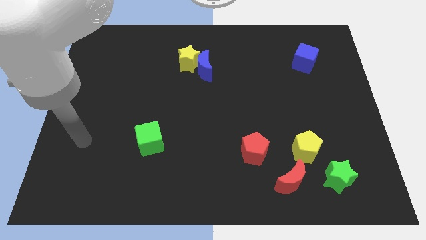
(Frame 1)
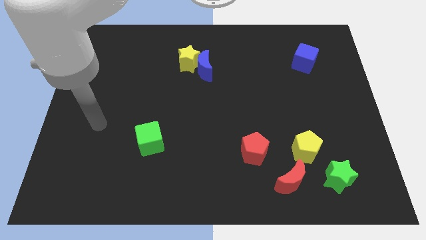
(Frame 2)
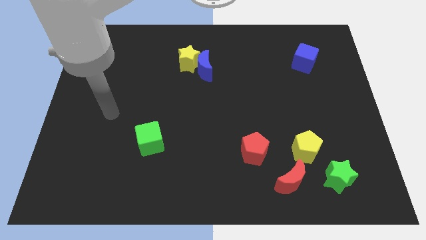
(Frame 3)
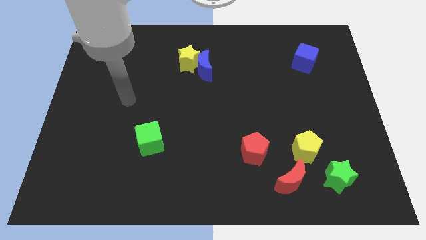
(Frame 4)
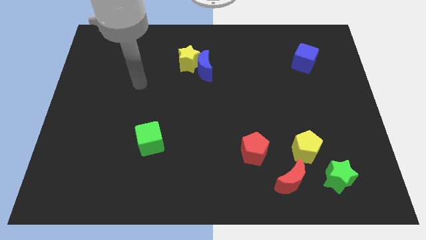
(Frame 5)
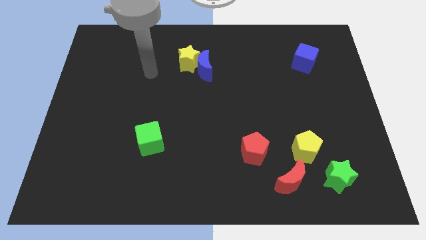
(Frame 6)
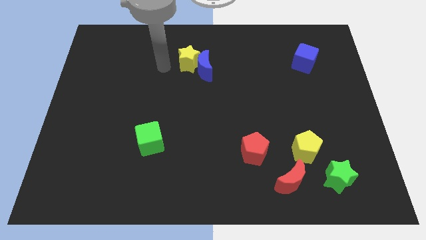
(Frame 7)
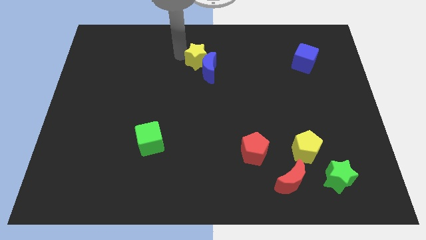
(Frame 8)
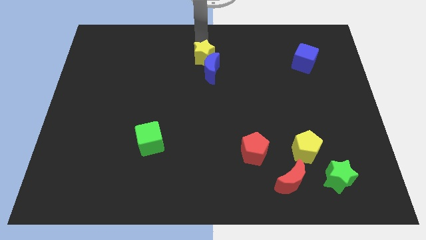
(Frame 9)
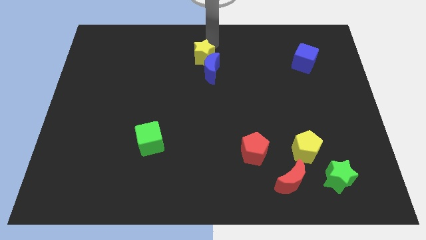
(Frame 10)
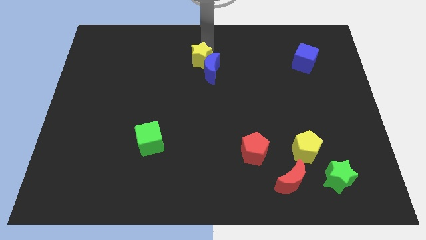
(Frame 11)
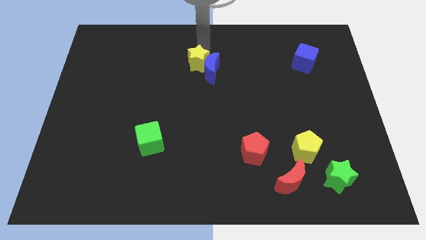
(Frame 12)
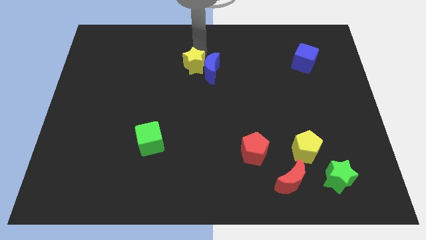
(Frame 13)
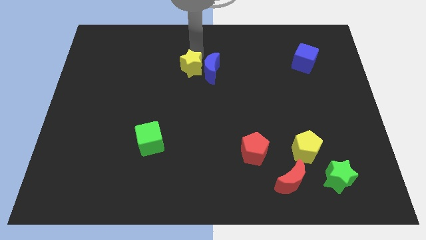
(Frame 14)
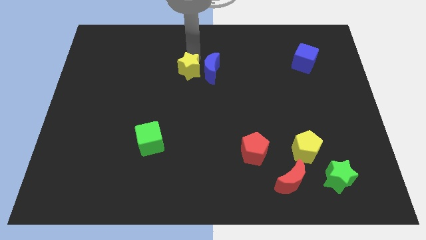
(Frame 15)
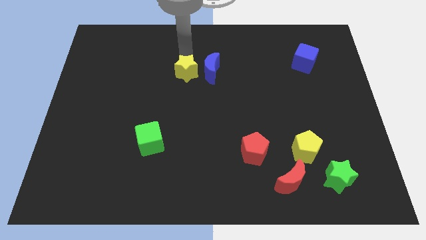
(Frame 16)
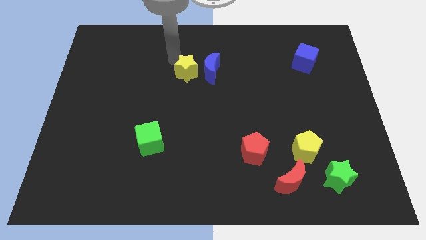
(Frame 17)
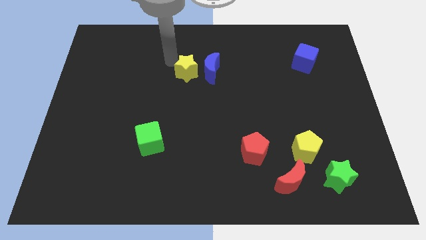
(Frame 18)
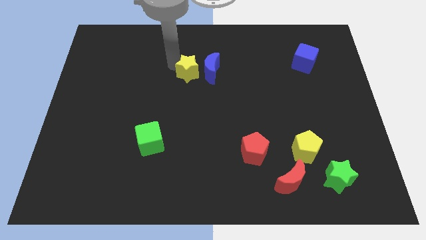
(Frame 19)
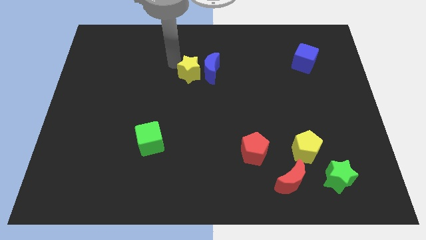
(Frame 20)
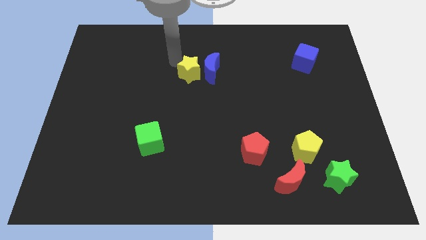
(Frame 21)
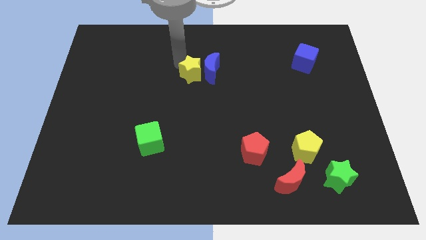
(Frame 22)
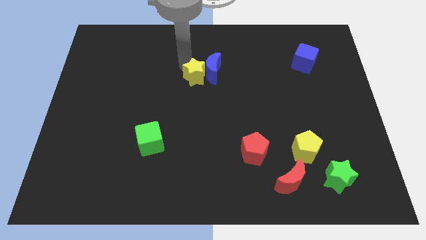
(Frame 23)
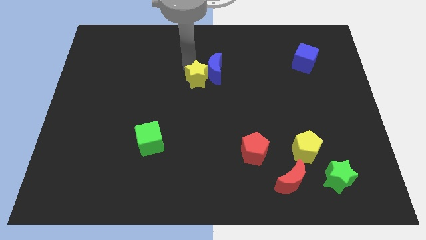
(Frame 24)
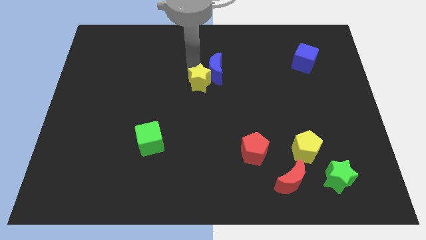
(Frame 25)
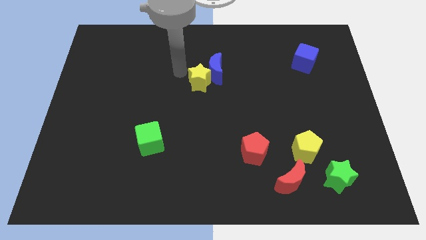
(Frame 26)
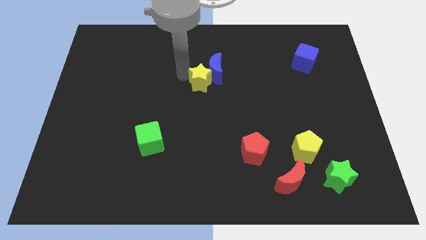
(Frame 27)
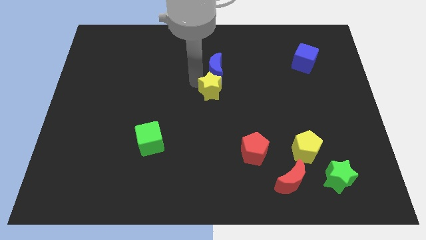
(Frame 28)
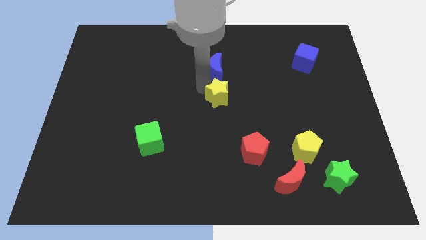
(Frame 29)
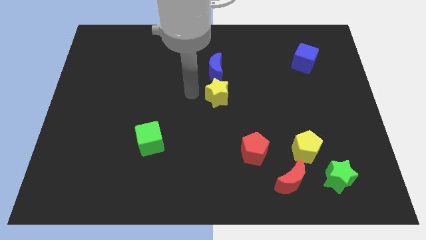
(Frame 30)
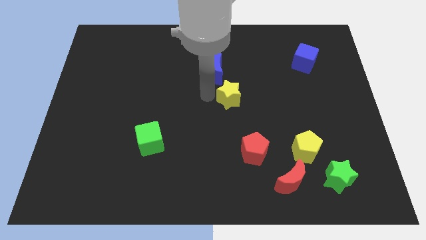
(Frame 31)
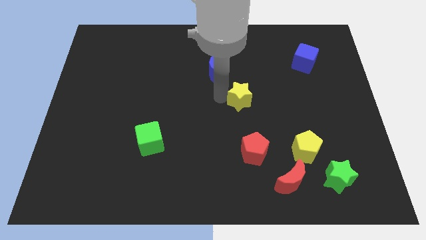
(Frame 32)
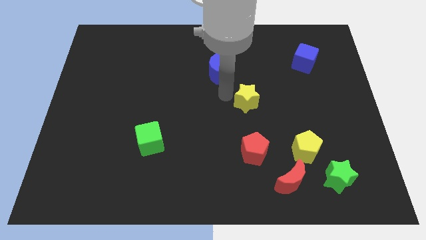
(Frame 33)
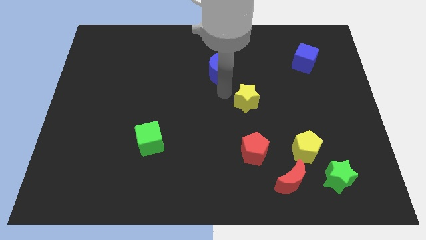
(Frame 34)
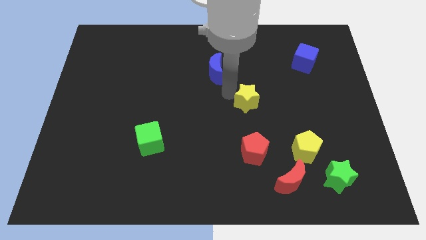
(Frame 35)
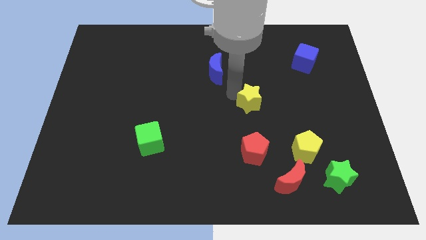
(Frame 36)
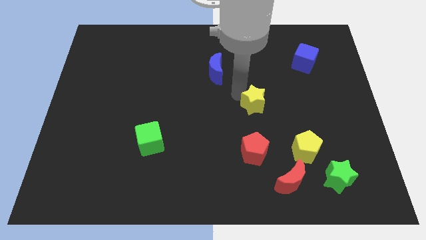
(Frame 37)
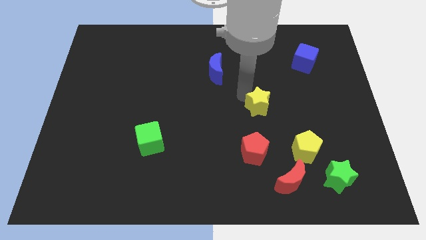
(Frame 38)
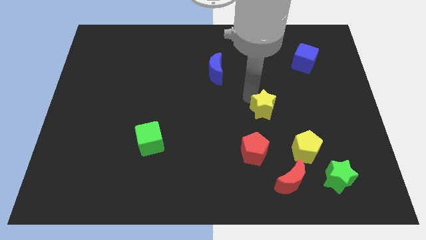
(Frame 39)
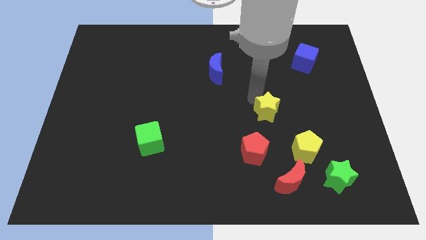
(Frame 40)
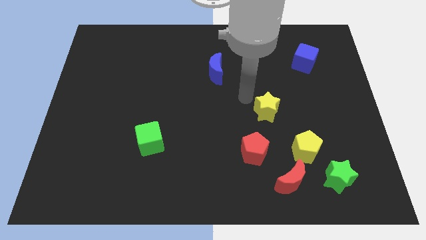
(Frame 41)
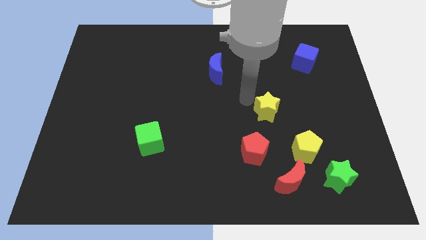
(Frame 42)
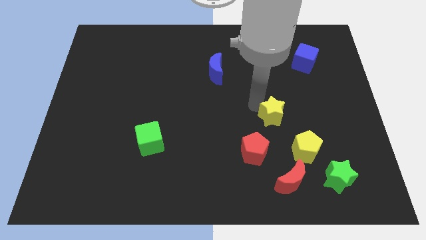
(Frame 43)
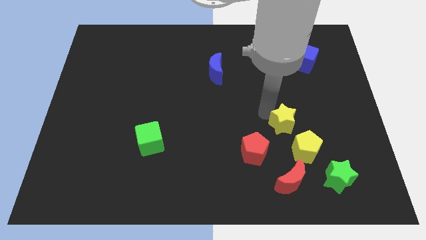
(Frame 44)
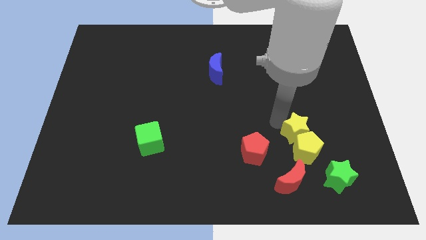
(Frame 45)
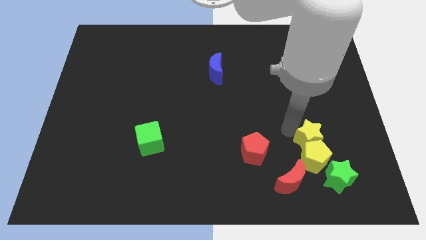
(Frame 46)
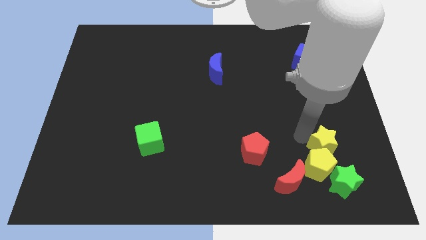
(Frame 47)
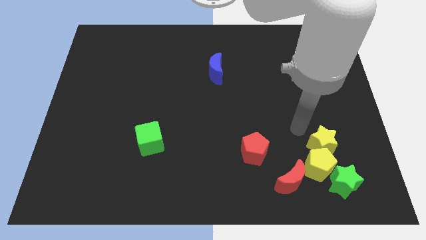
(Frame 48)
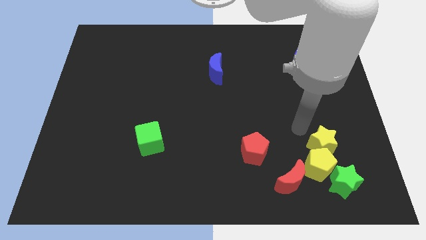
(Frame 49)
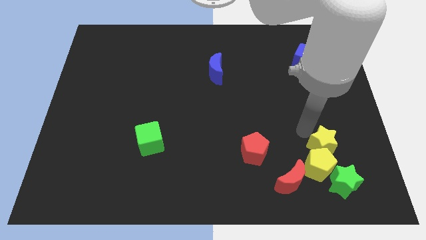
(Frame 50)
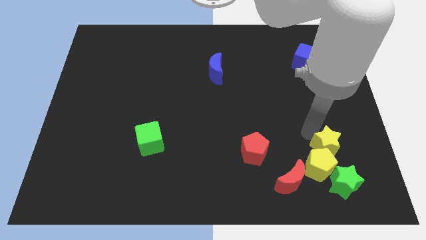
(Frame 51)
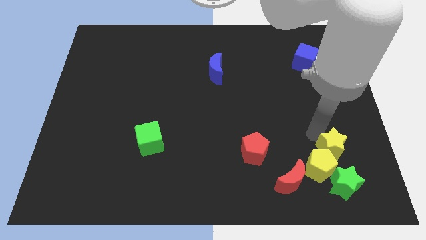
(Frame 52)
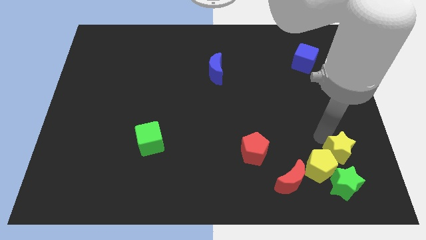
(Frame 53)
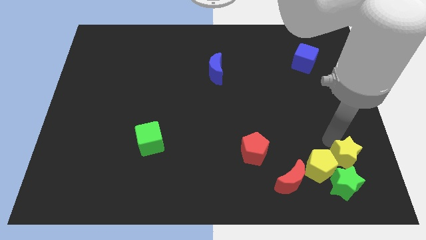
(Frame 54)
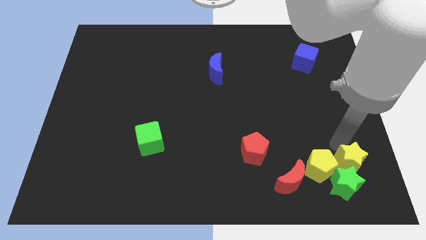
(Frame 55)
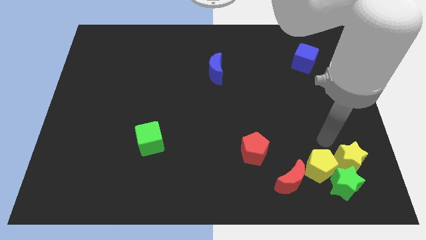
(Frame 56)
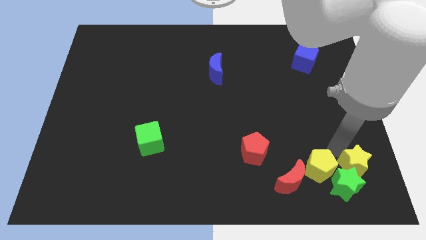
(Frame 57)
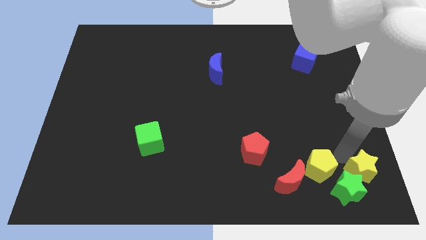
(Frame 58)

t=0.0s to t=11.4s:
push the yellow star to the lower right corner

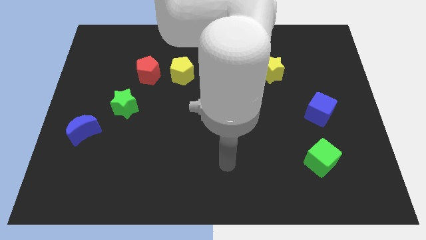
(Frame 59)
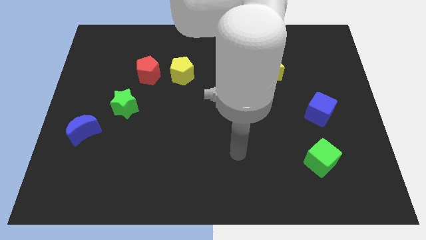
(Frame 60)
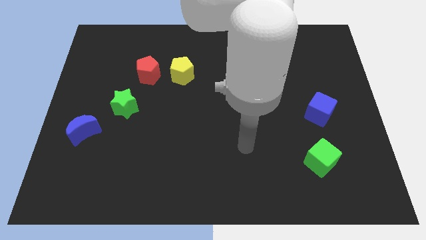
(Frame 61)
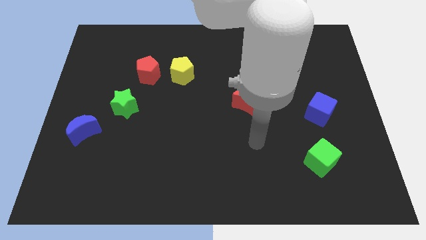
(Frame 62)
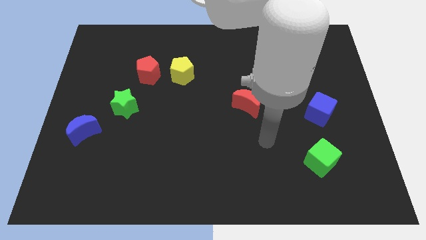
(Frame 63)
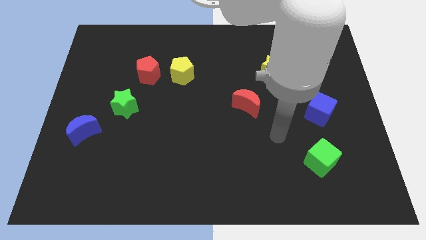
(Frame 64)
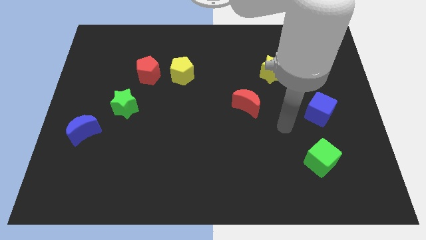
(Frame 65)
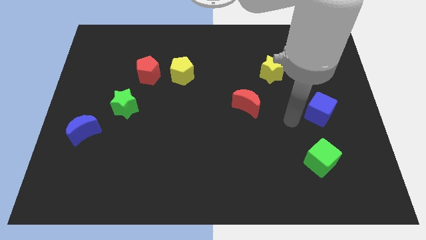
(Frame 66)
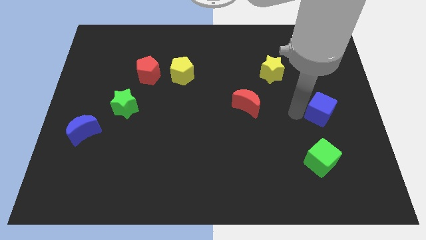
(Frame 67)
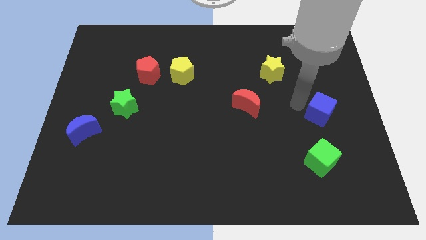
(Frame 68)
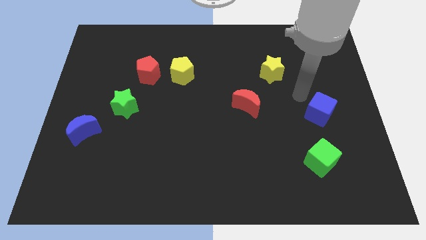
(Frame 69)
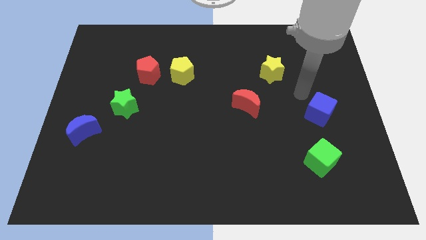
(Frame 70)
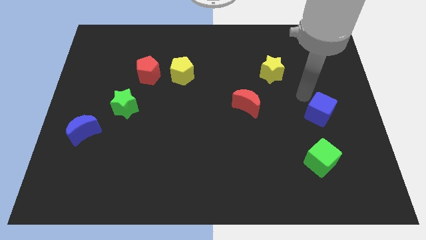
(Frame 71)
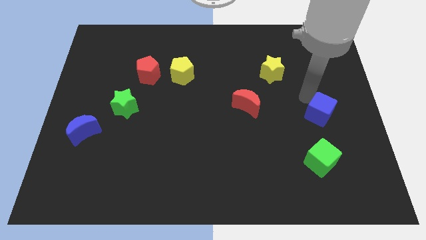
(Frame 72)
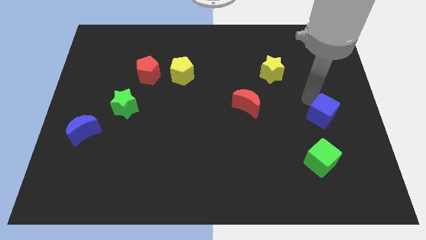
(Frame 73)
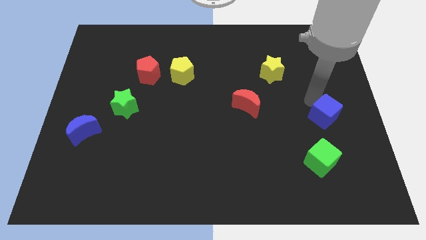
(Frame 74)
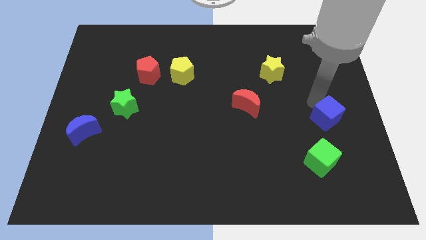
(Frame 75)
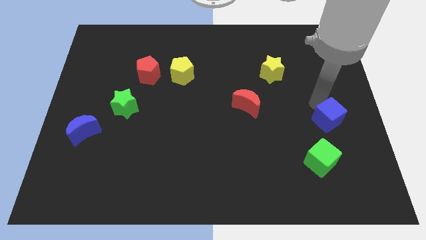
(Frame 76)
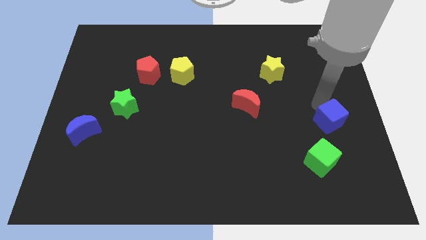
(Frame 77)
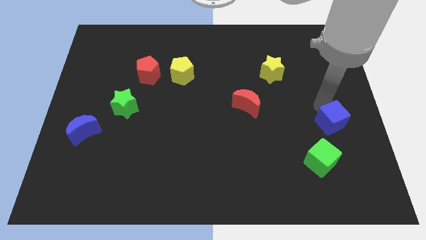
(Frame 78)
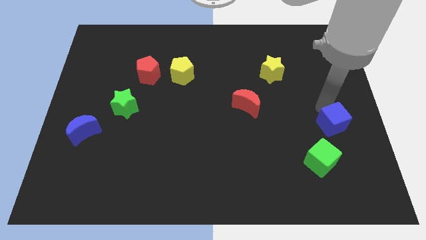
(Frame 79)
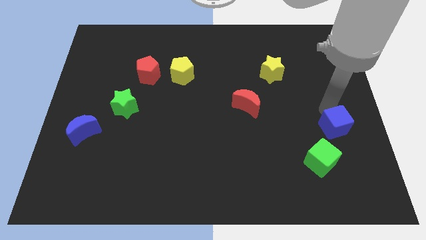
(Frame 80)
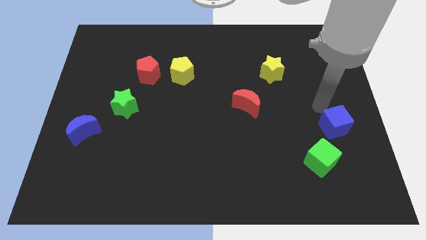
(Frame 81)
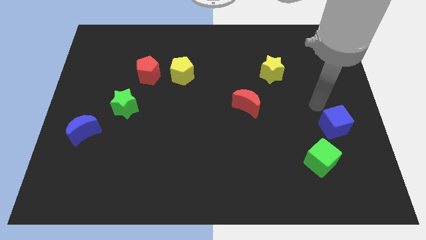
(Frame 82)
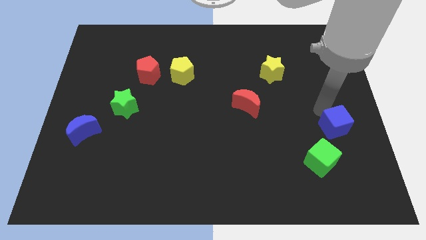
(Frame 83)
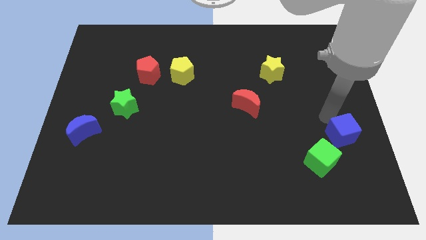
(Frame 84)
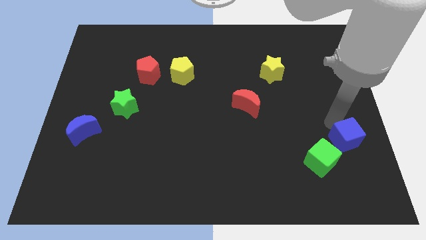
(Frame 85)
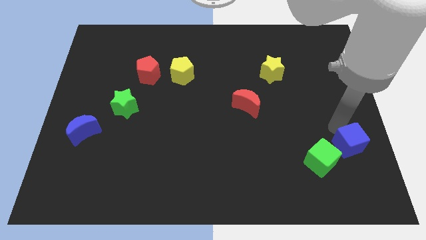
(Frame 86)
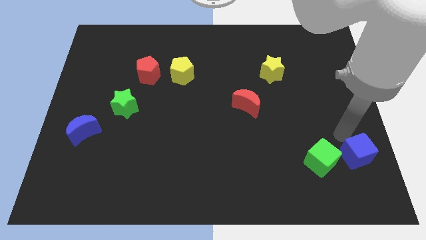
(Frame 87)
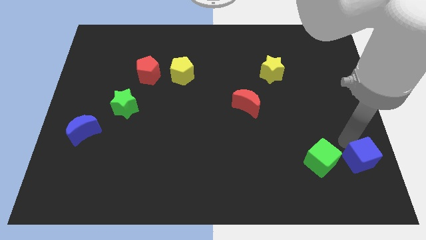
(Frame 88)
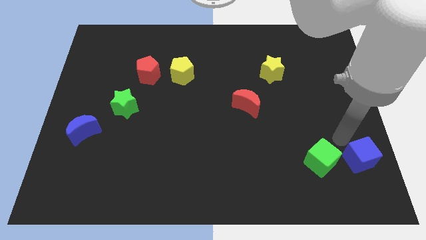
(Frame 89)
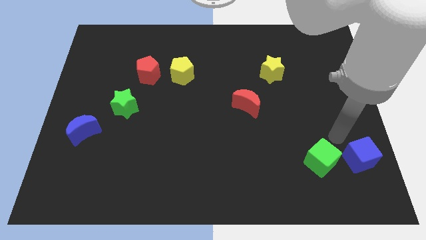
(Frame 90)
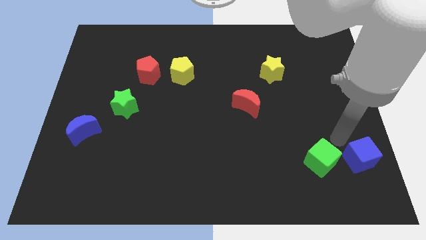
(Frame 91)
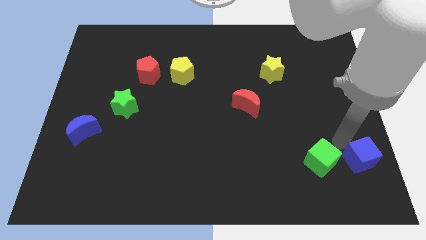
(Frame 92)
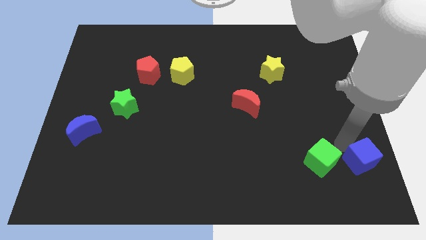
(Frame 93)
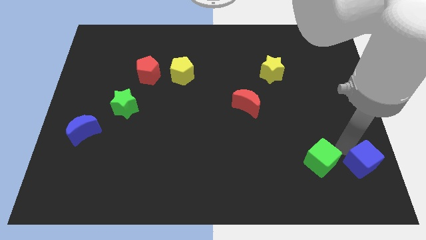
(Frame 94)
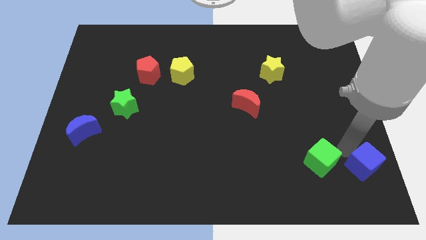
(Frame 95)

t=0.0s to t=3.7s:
push the blue cube to the bottom right corner
